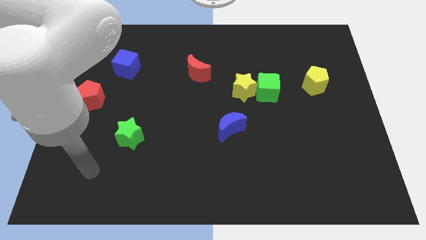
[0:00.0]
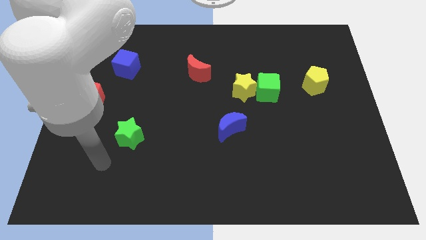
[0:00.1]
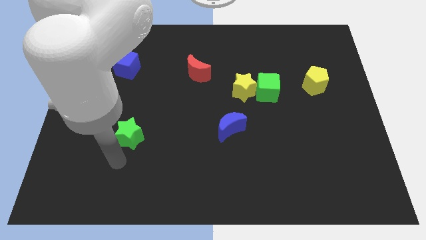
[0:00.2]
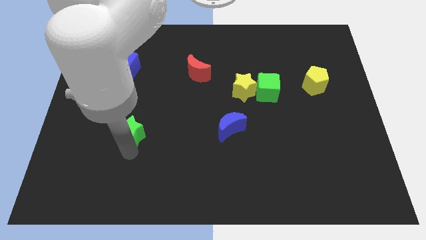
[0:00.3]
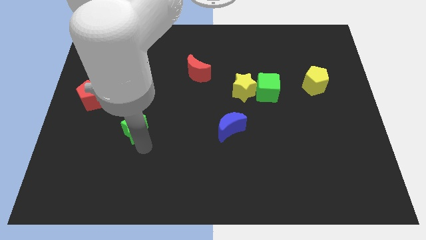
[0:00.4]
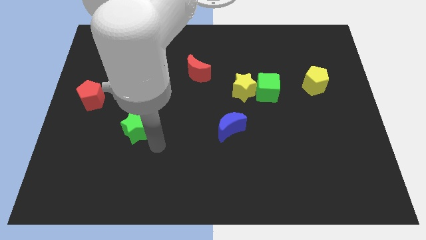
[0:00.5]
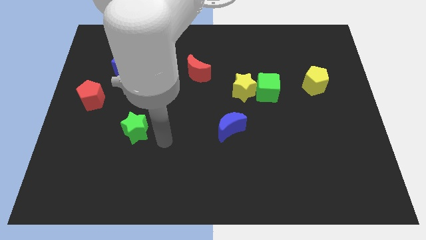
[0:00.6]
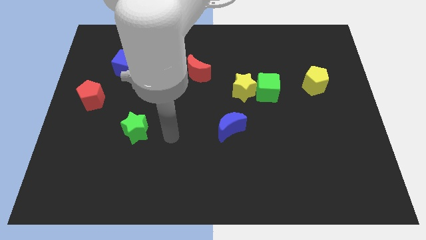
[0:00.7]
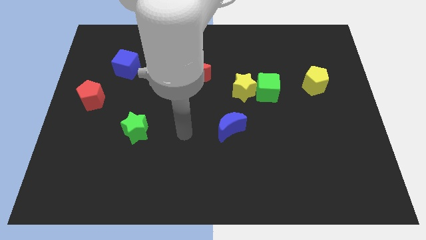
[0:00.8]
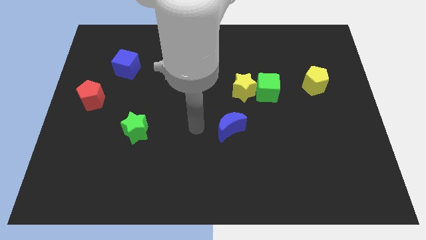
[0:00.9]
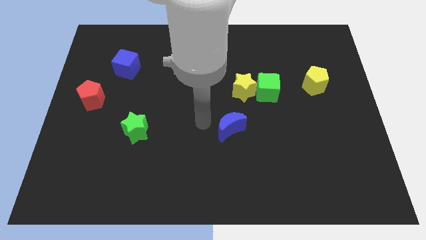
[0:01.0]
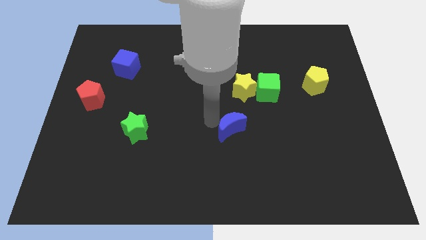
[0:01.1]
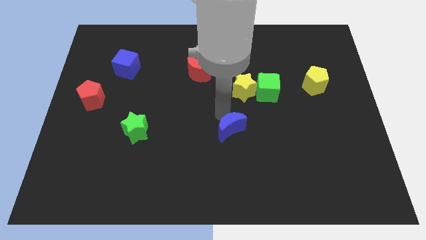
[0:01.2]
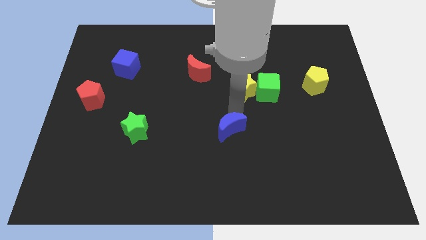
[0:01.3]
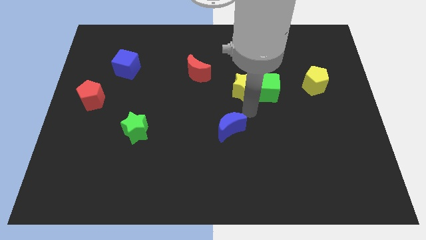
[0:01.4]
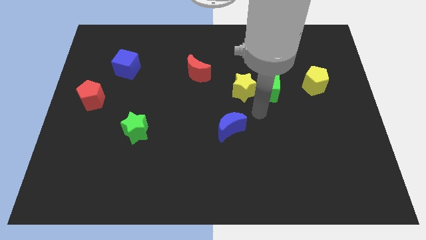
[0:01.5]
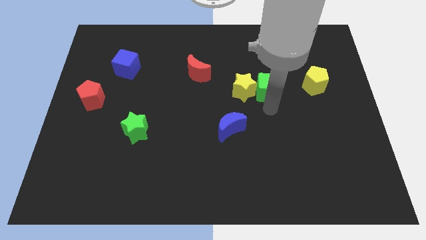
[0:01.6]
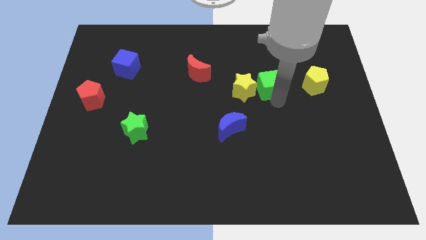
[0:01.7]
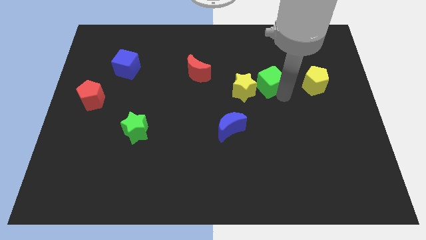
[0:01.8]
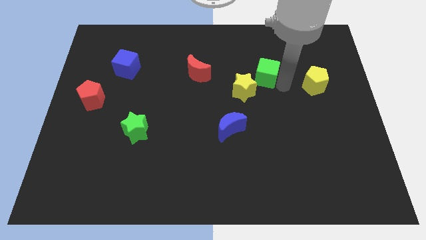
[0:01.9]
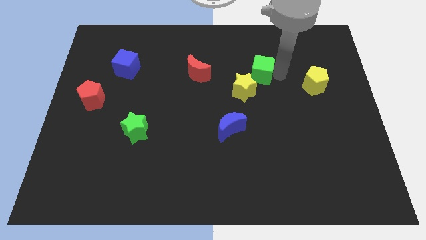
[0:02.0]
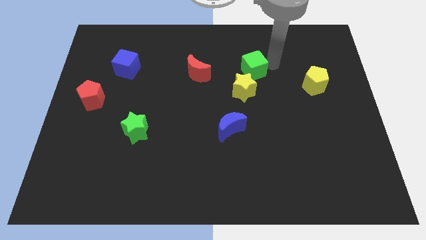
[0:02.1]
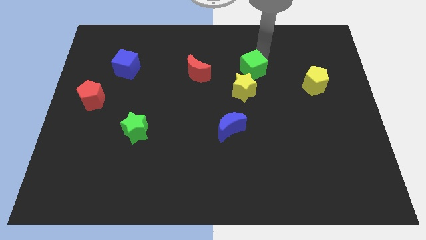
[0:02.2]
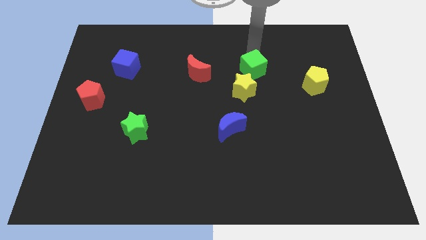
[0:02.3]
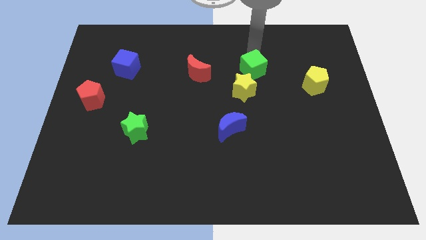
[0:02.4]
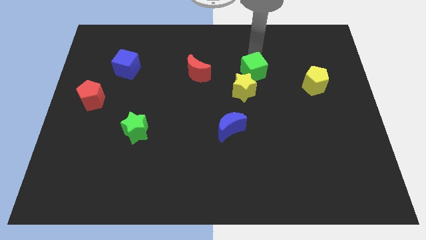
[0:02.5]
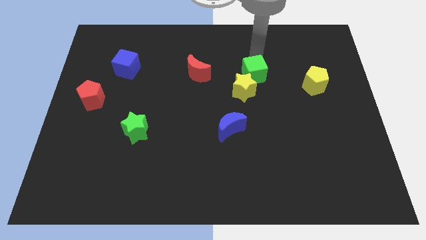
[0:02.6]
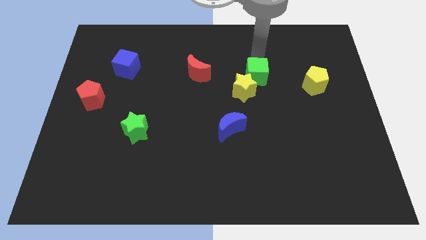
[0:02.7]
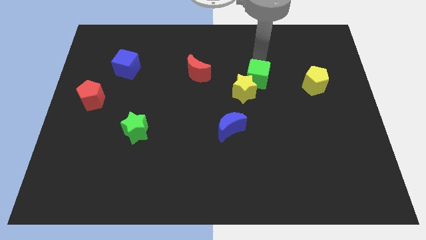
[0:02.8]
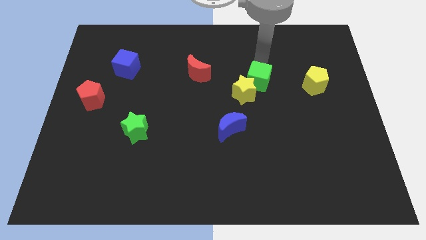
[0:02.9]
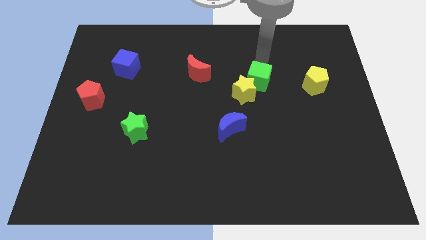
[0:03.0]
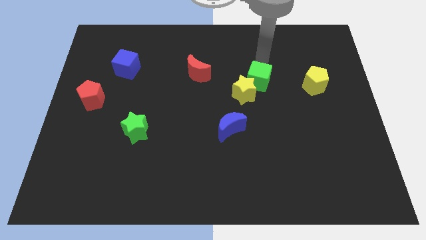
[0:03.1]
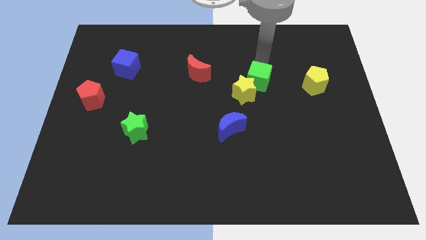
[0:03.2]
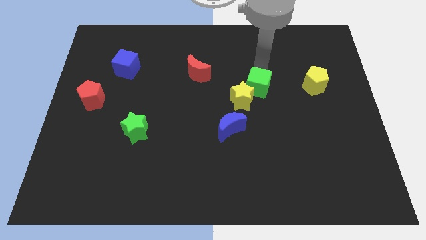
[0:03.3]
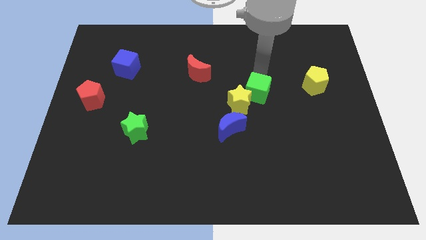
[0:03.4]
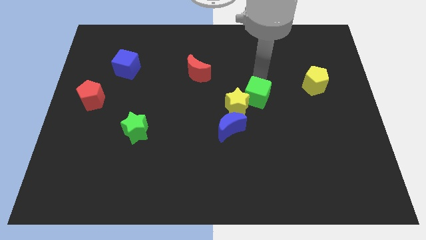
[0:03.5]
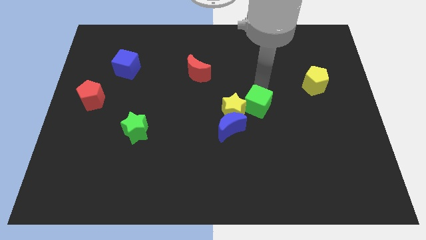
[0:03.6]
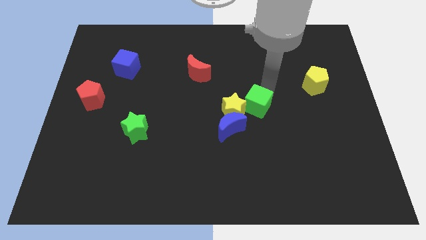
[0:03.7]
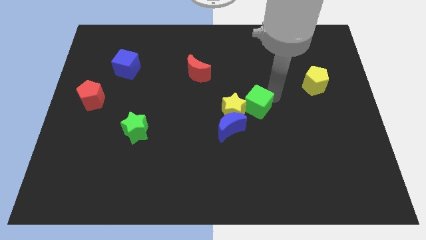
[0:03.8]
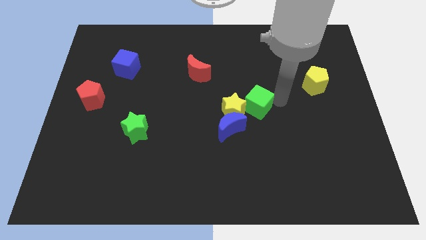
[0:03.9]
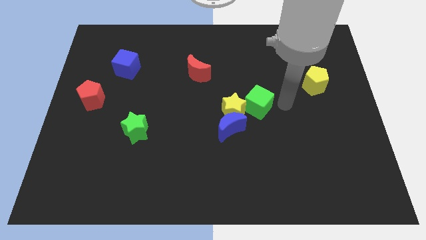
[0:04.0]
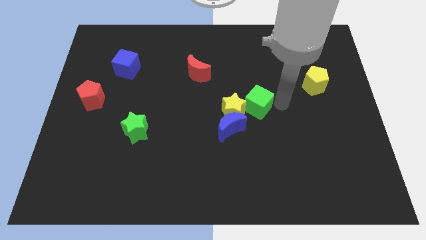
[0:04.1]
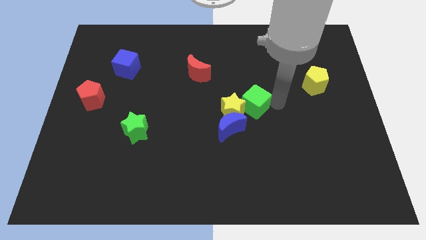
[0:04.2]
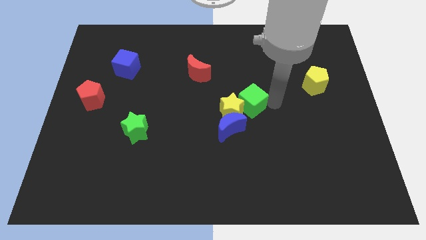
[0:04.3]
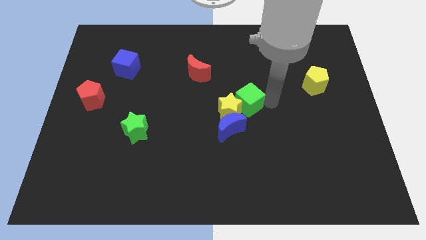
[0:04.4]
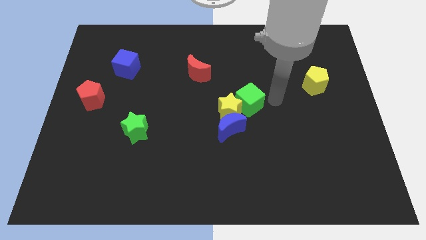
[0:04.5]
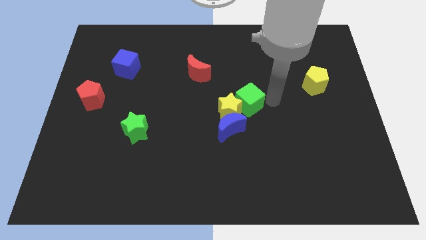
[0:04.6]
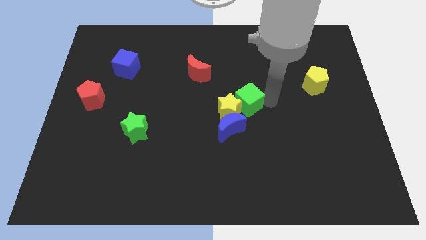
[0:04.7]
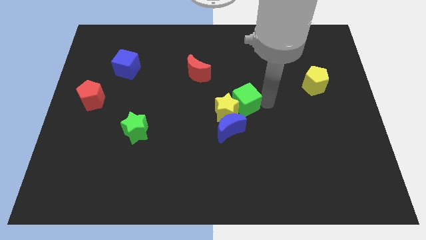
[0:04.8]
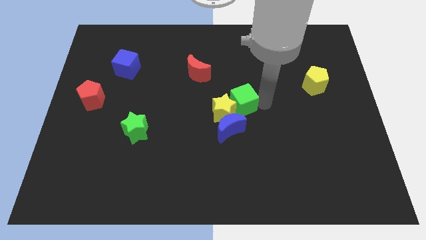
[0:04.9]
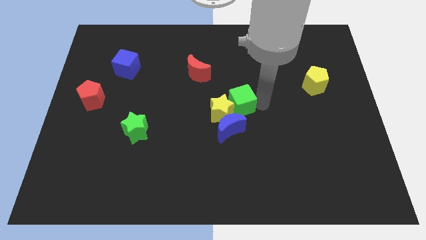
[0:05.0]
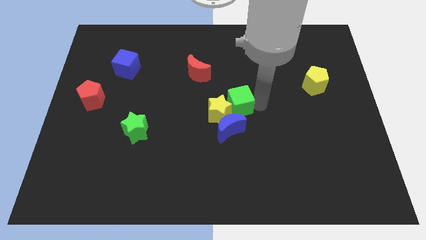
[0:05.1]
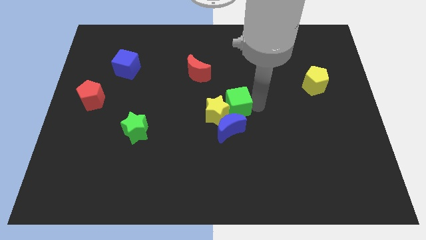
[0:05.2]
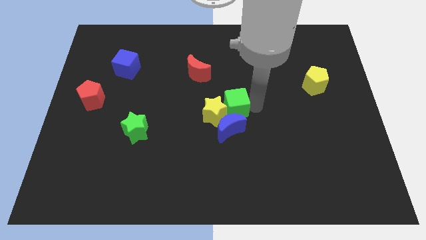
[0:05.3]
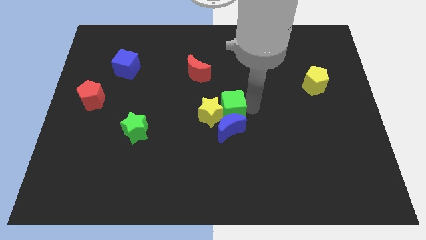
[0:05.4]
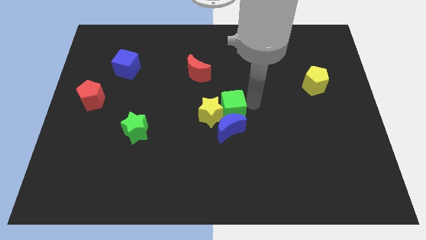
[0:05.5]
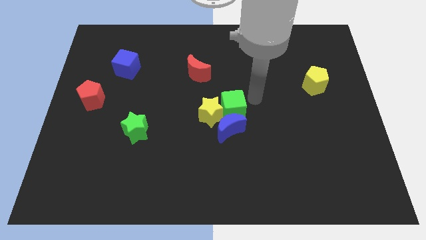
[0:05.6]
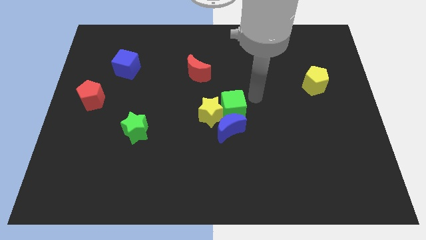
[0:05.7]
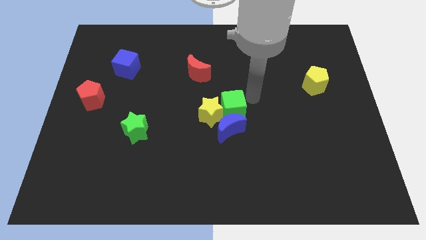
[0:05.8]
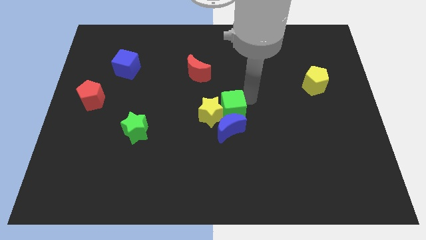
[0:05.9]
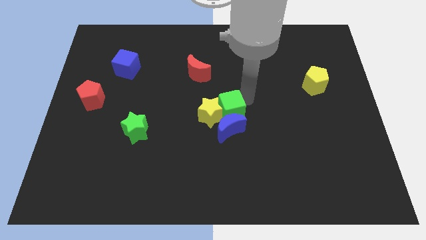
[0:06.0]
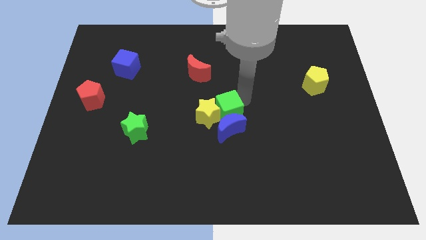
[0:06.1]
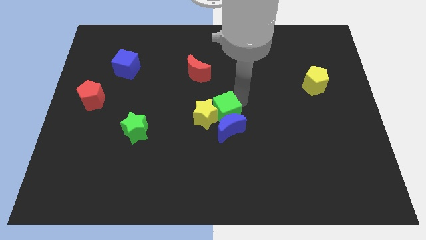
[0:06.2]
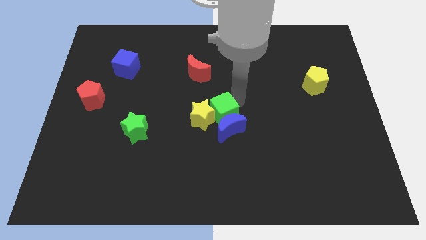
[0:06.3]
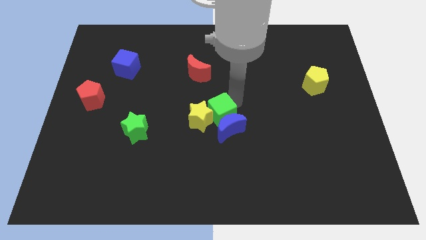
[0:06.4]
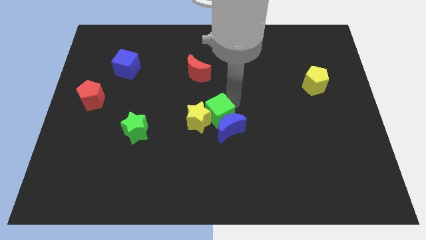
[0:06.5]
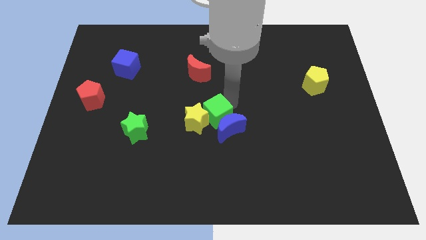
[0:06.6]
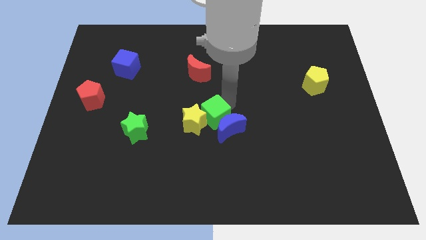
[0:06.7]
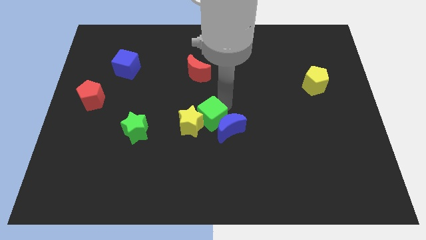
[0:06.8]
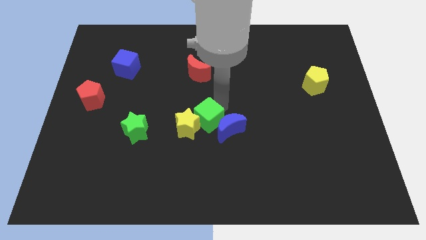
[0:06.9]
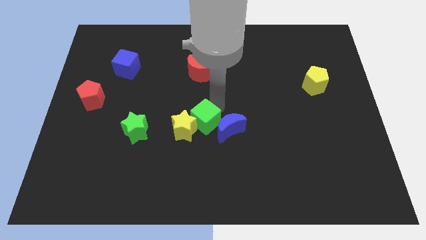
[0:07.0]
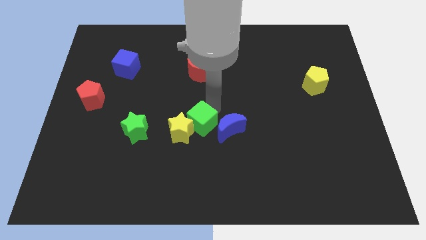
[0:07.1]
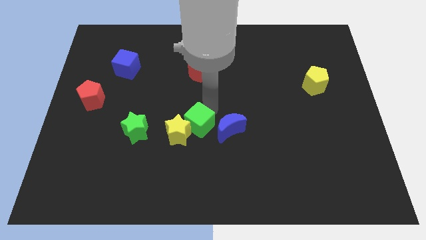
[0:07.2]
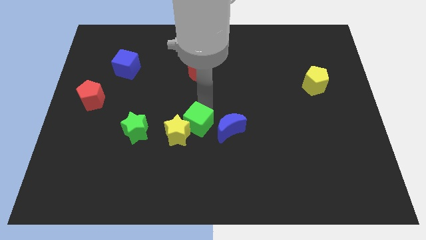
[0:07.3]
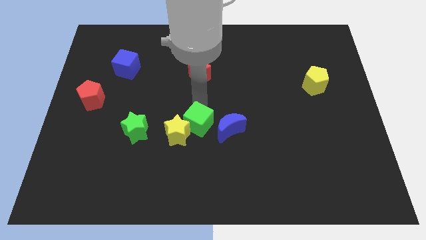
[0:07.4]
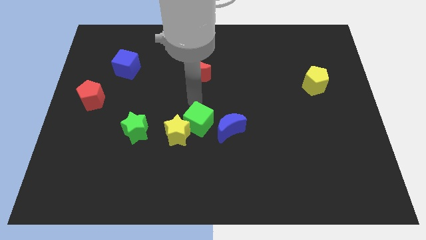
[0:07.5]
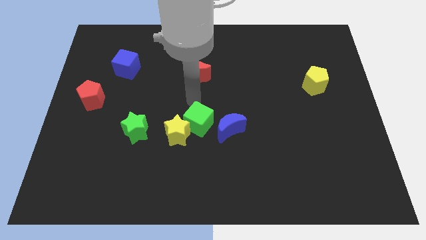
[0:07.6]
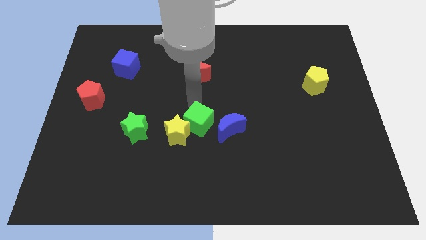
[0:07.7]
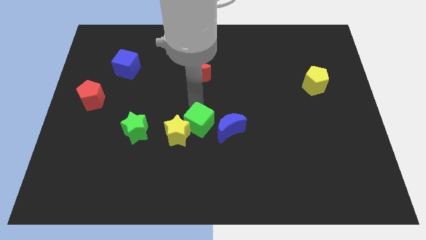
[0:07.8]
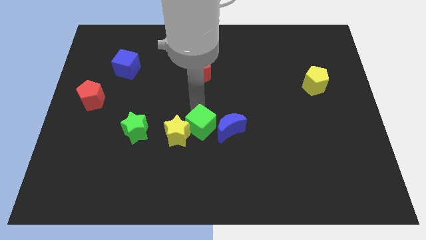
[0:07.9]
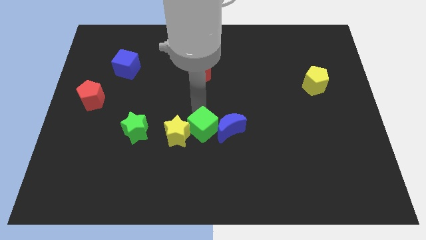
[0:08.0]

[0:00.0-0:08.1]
push the green cube to the bottom left of the blue moon

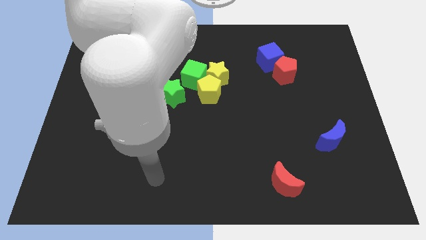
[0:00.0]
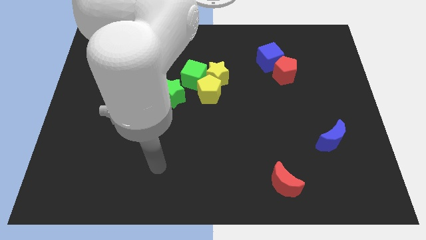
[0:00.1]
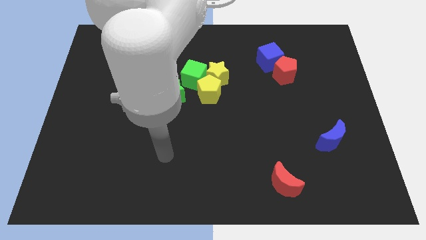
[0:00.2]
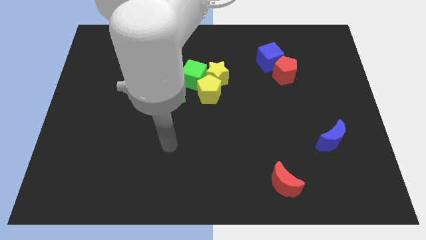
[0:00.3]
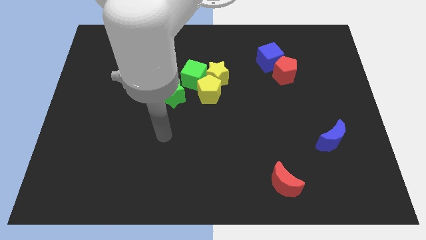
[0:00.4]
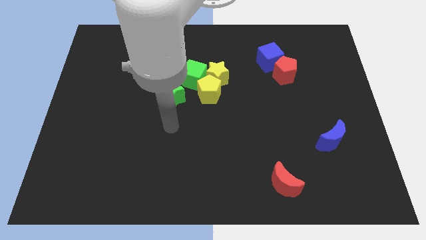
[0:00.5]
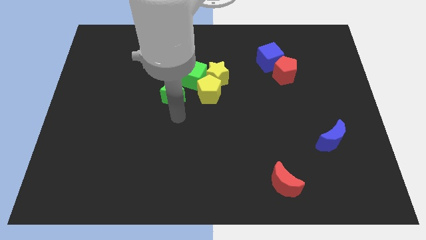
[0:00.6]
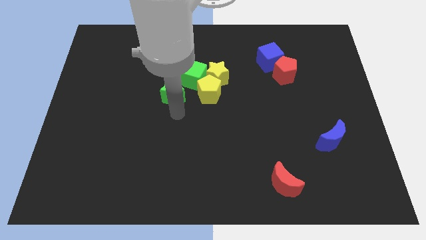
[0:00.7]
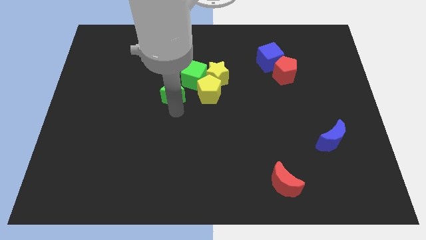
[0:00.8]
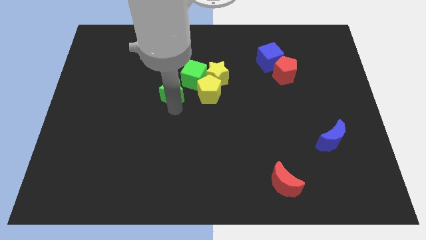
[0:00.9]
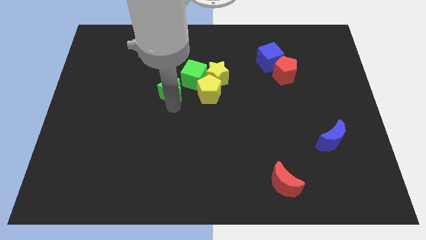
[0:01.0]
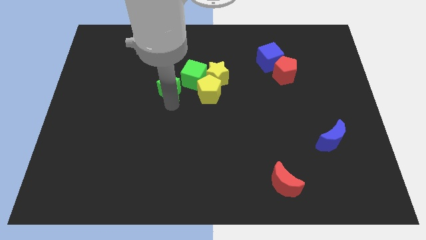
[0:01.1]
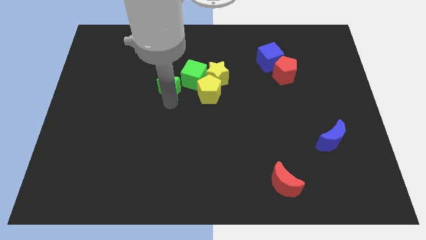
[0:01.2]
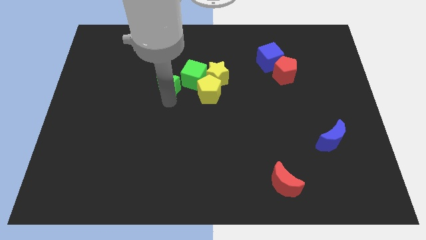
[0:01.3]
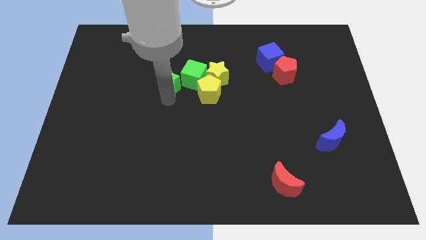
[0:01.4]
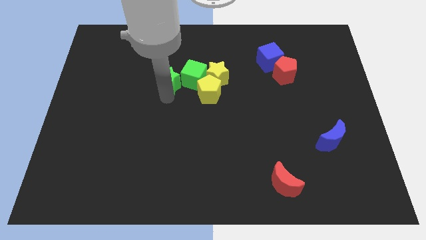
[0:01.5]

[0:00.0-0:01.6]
push the green star to the top left side of the yellow pentagon
